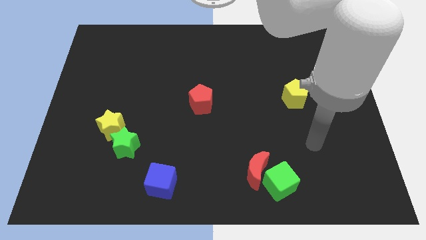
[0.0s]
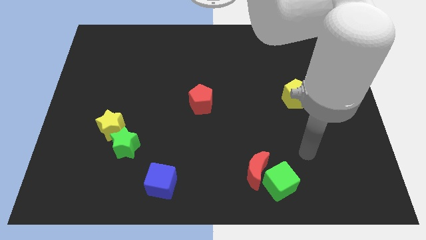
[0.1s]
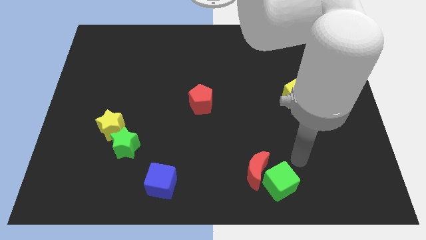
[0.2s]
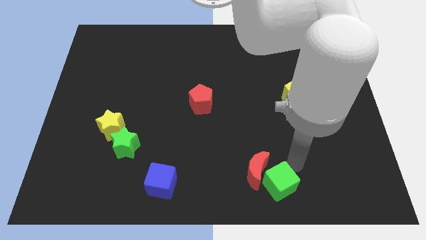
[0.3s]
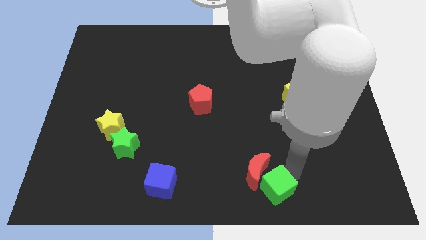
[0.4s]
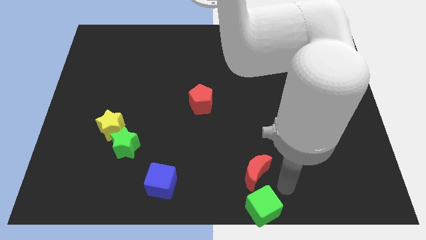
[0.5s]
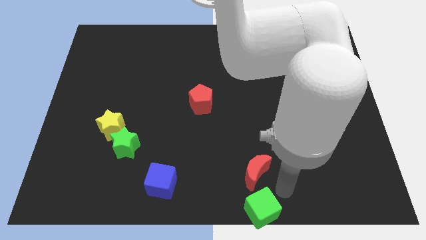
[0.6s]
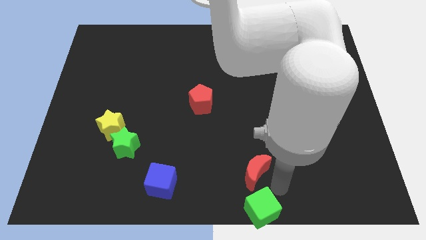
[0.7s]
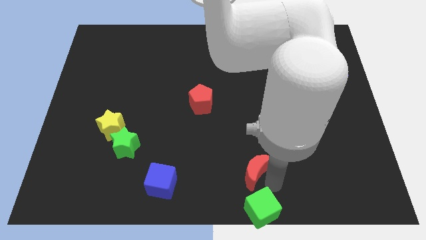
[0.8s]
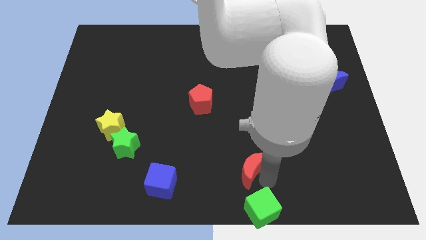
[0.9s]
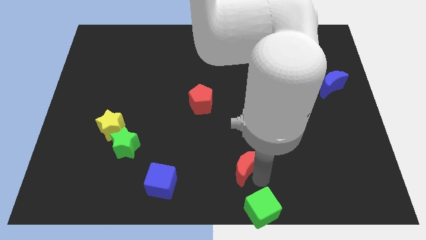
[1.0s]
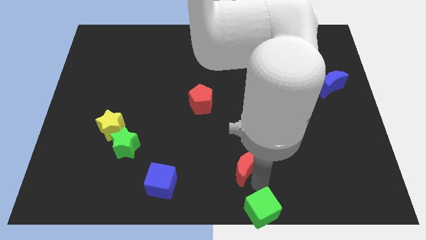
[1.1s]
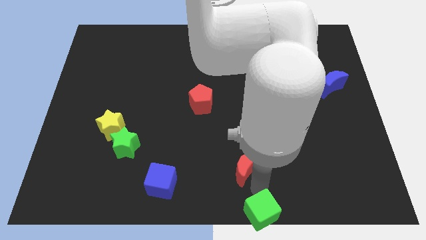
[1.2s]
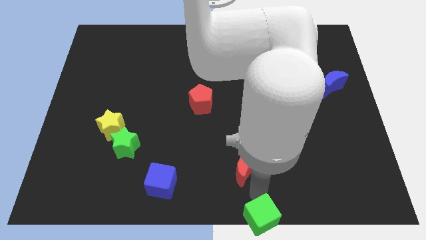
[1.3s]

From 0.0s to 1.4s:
pull the red moon apart from the green cube

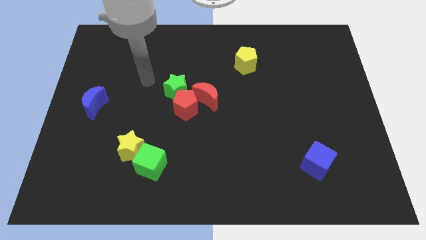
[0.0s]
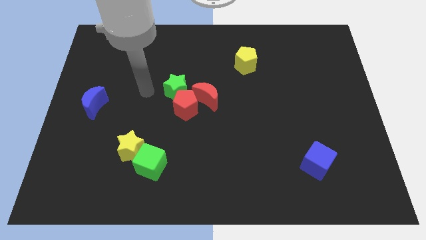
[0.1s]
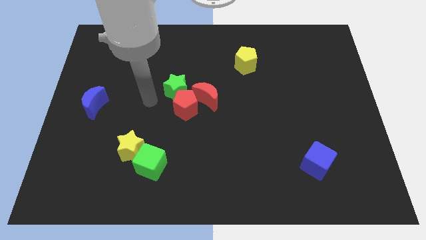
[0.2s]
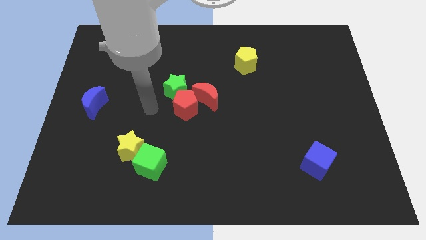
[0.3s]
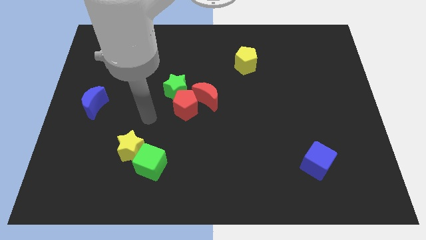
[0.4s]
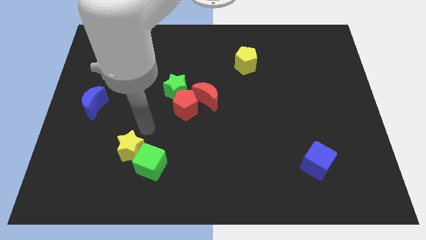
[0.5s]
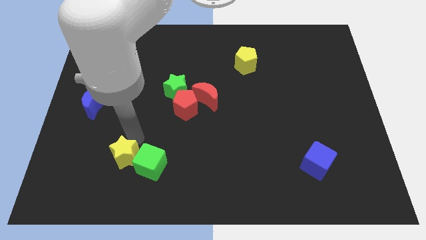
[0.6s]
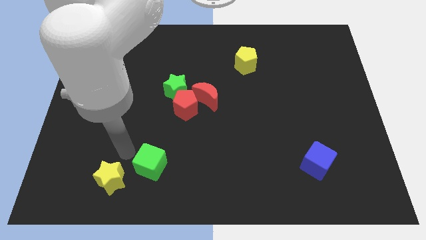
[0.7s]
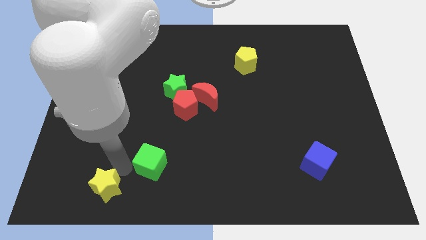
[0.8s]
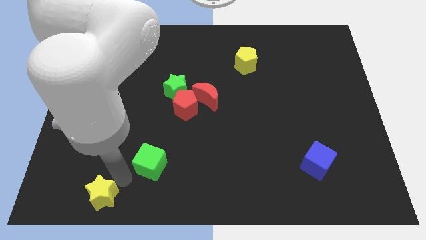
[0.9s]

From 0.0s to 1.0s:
move the green cube away from the yellow star

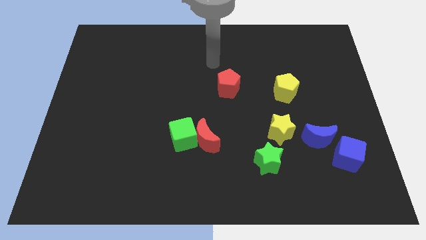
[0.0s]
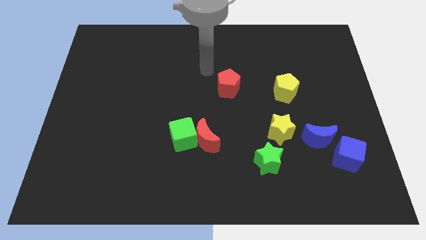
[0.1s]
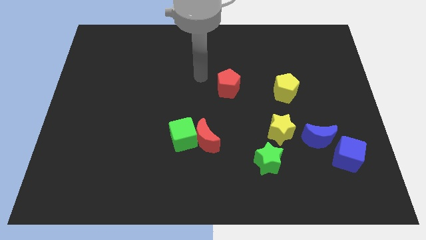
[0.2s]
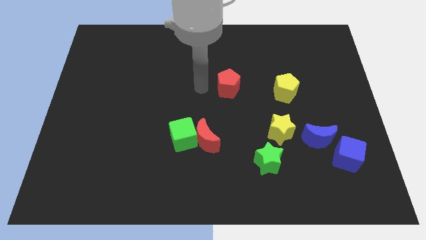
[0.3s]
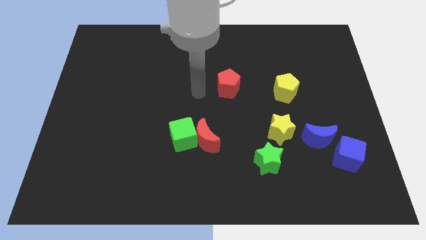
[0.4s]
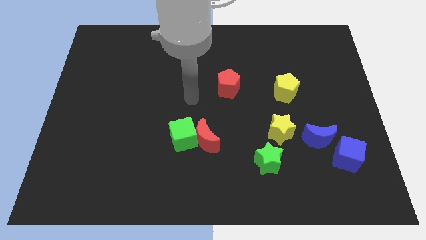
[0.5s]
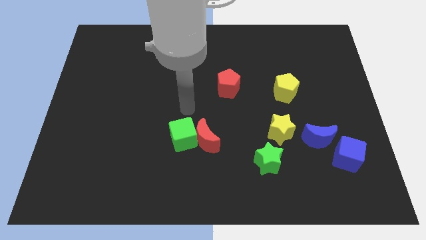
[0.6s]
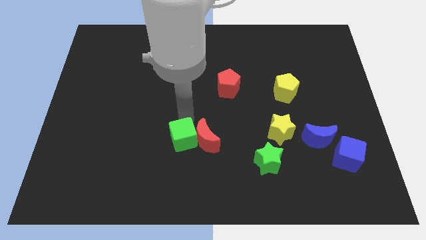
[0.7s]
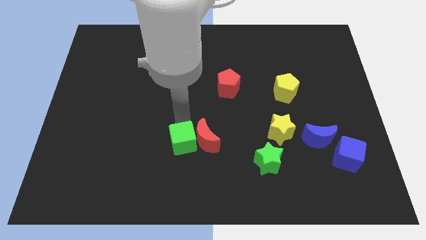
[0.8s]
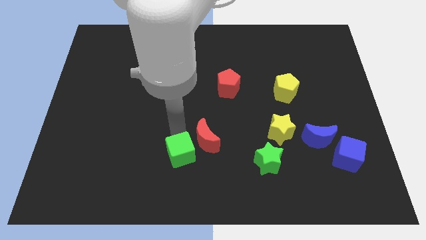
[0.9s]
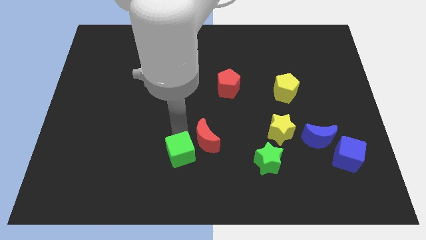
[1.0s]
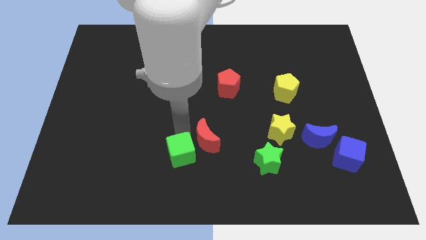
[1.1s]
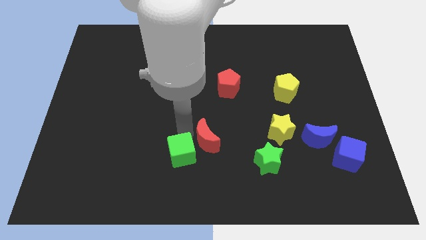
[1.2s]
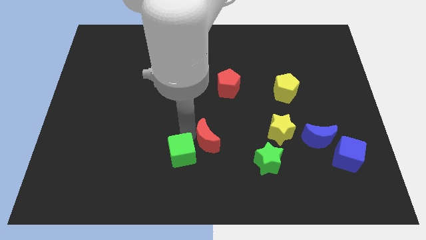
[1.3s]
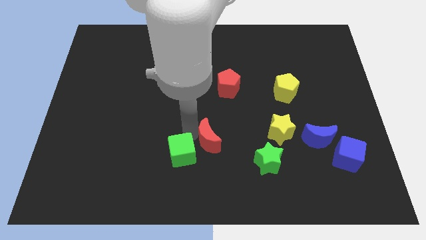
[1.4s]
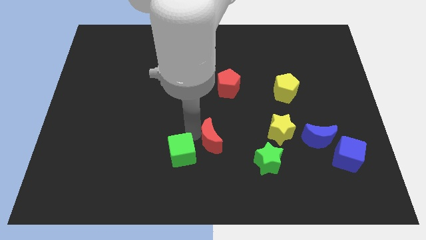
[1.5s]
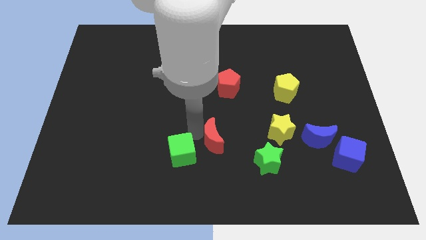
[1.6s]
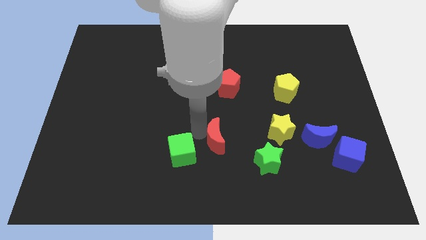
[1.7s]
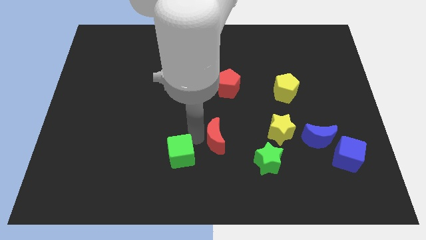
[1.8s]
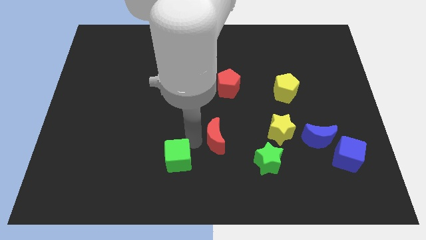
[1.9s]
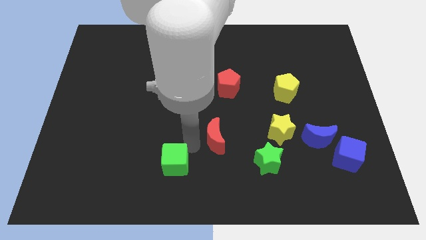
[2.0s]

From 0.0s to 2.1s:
move the red moon away from the green cube

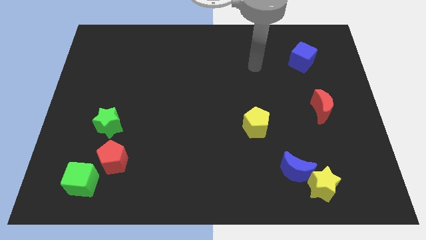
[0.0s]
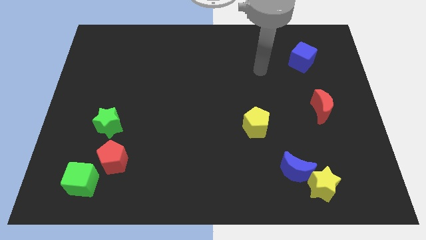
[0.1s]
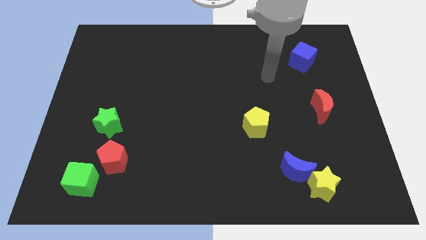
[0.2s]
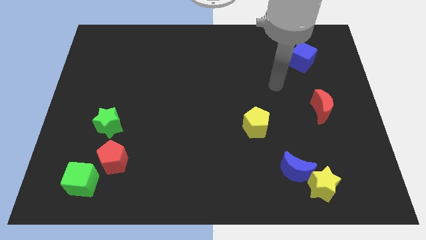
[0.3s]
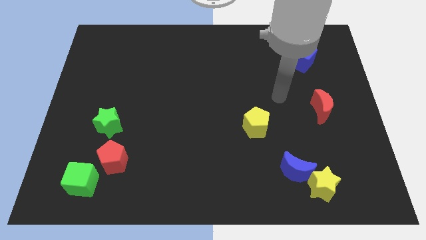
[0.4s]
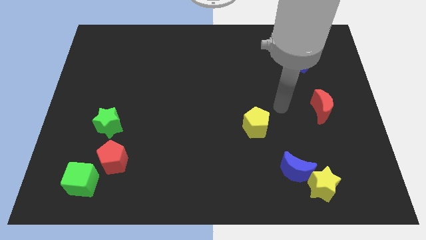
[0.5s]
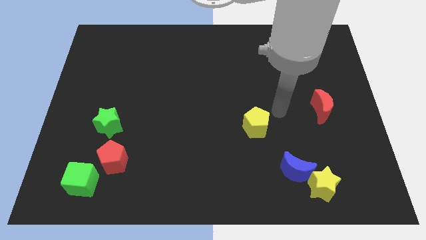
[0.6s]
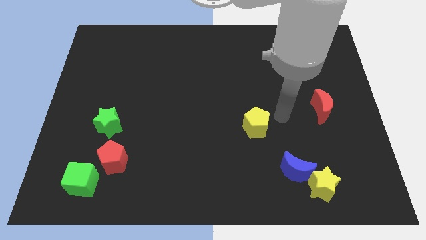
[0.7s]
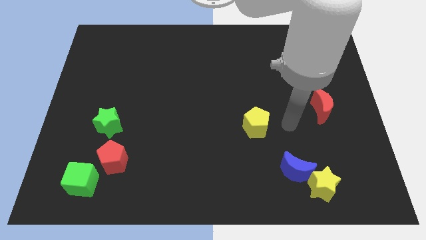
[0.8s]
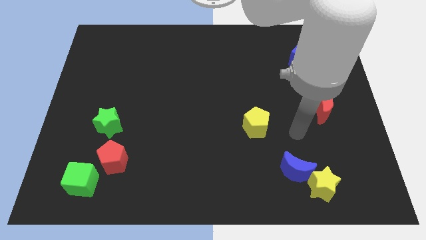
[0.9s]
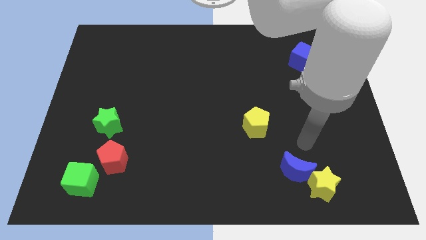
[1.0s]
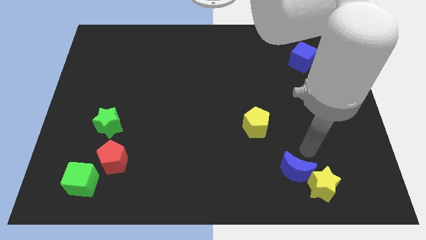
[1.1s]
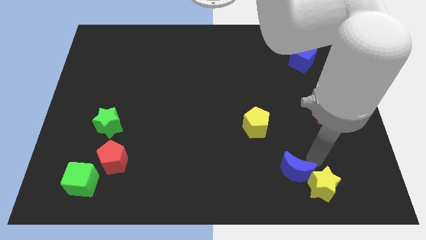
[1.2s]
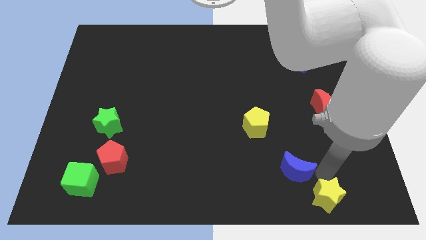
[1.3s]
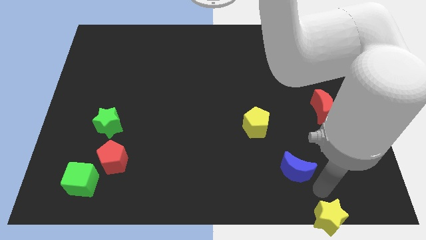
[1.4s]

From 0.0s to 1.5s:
move the blue moon away from the yellow star

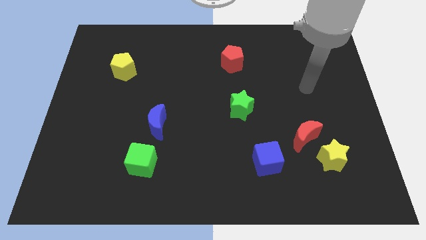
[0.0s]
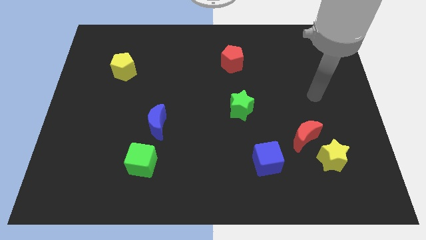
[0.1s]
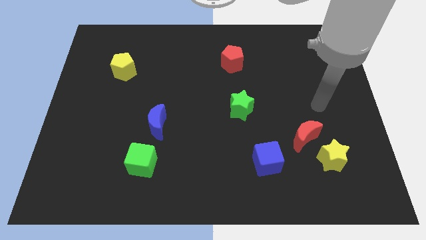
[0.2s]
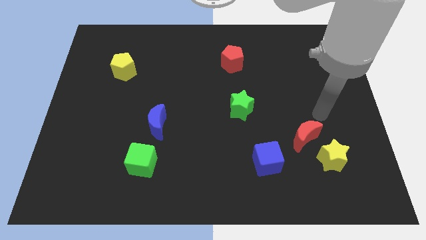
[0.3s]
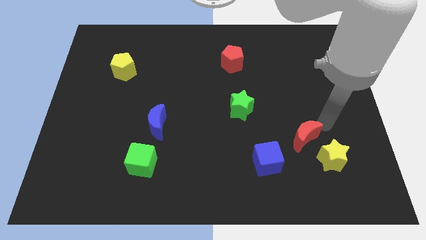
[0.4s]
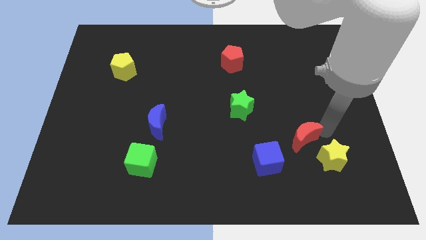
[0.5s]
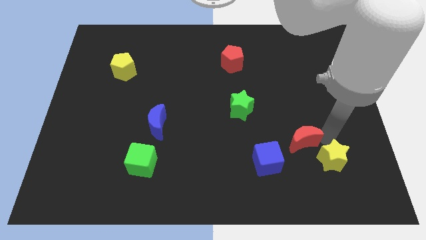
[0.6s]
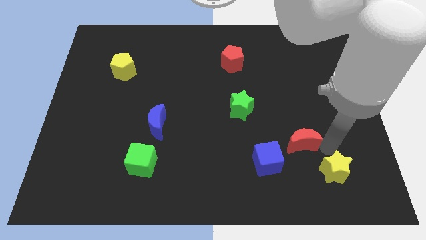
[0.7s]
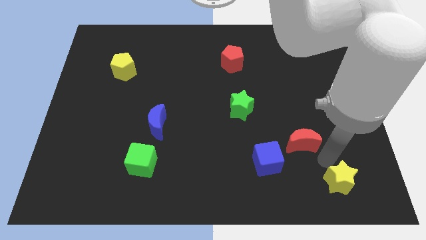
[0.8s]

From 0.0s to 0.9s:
move the red moon away from the yellow star

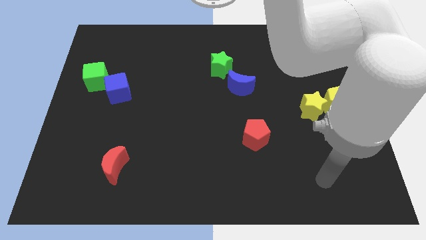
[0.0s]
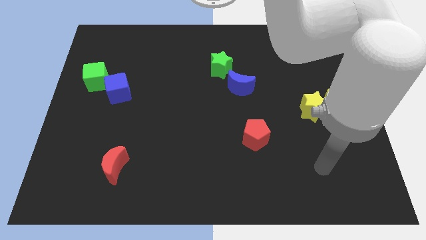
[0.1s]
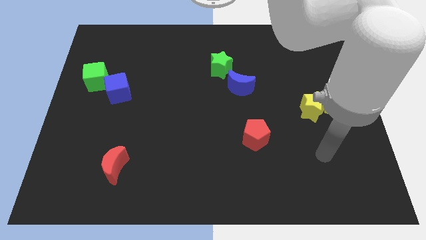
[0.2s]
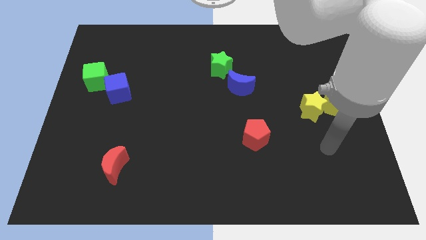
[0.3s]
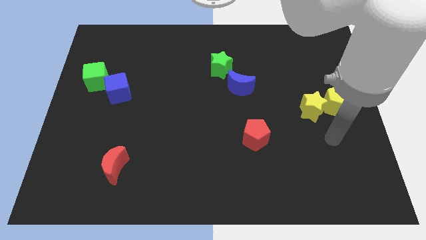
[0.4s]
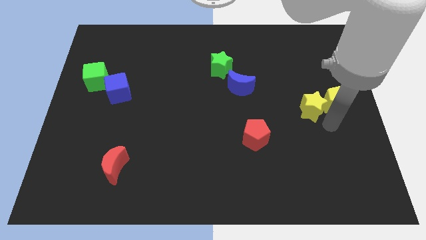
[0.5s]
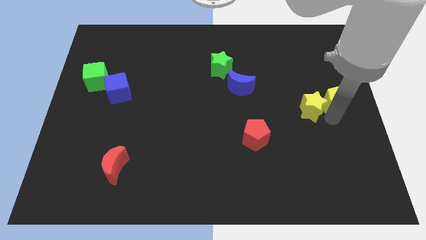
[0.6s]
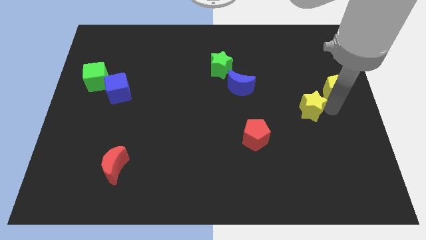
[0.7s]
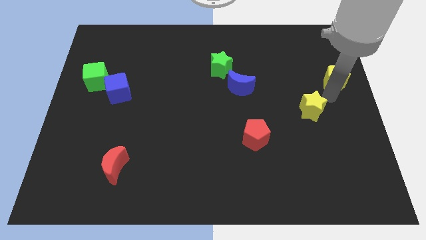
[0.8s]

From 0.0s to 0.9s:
pull the yellow star apart from the yellow pentagon

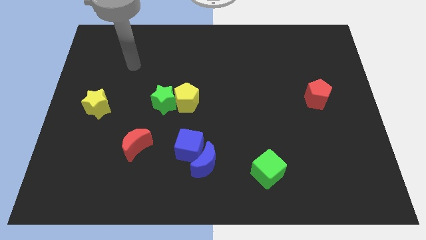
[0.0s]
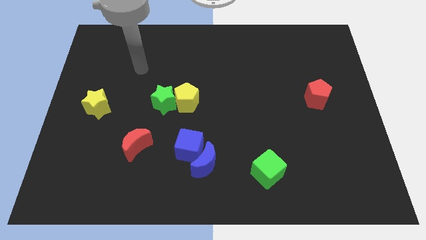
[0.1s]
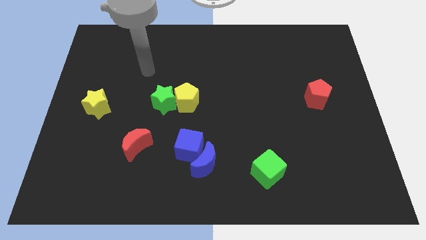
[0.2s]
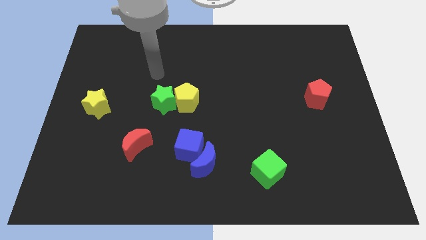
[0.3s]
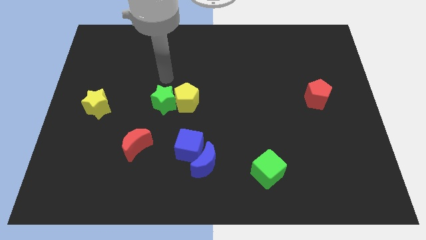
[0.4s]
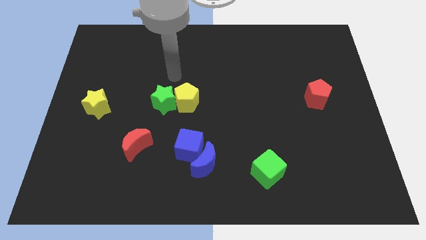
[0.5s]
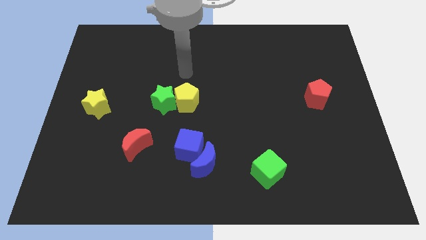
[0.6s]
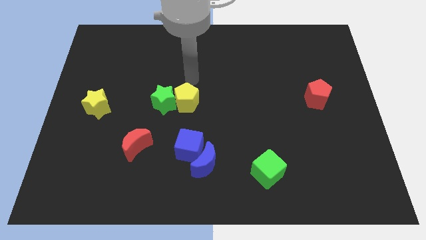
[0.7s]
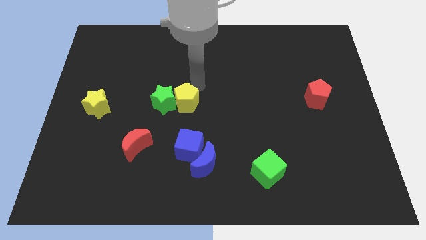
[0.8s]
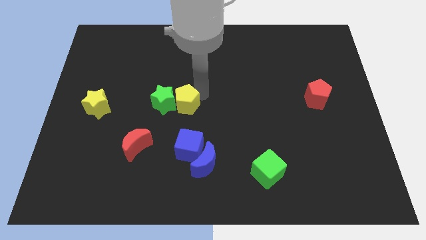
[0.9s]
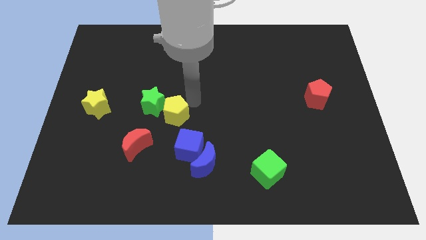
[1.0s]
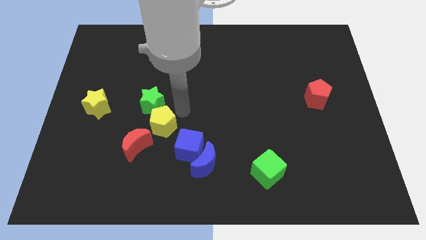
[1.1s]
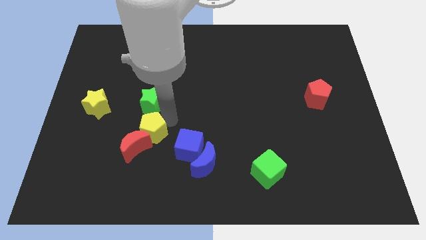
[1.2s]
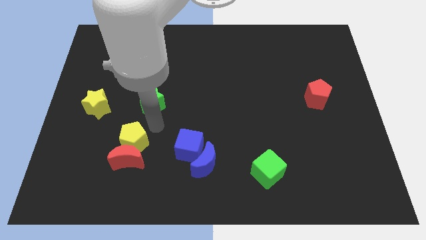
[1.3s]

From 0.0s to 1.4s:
move the green star away from the yellow pentagon
